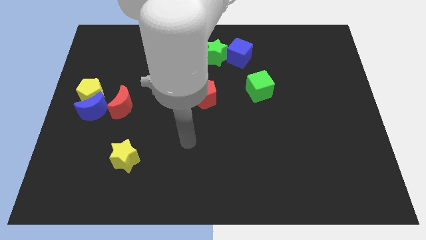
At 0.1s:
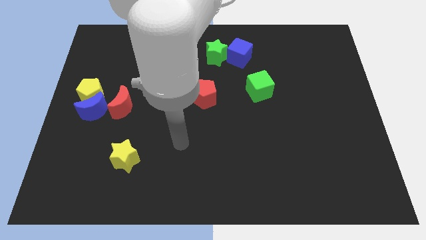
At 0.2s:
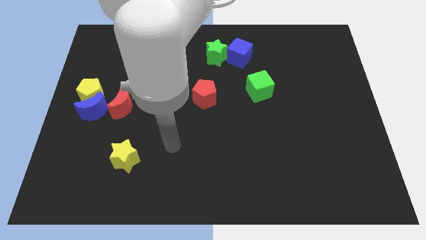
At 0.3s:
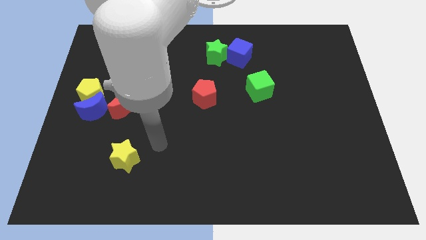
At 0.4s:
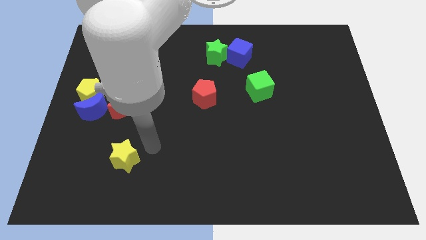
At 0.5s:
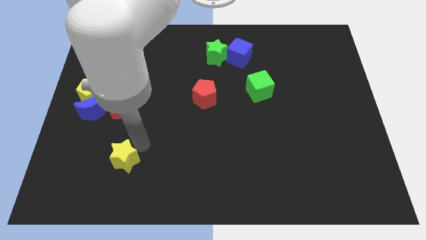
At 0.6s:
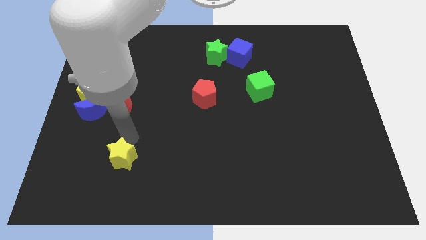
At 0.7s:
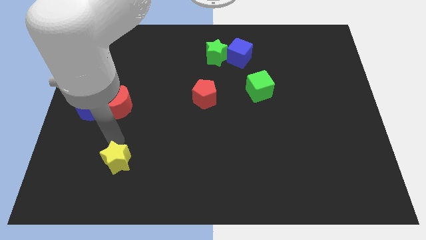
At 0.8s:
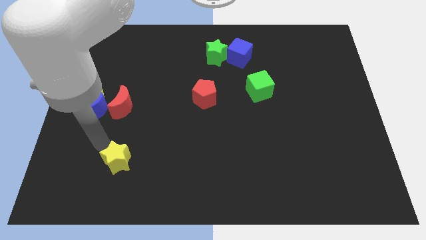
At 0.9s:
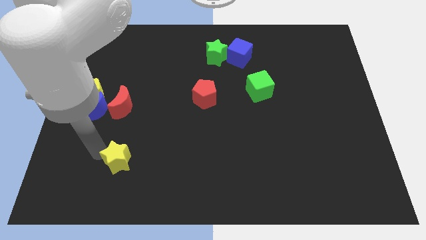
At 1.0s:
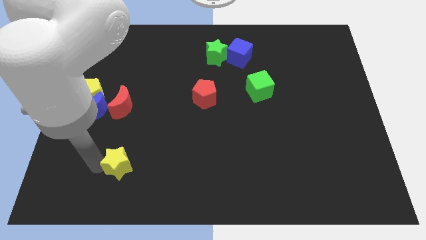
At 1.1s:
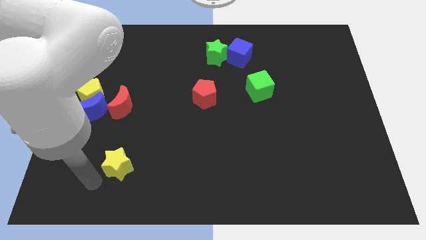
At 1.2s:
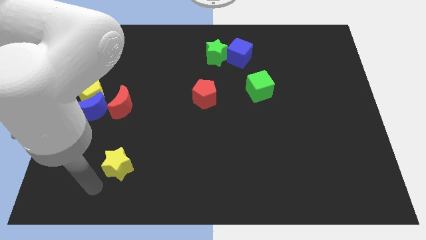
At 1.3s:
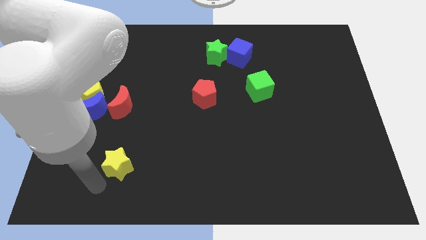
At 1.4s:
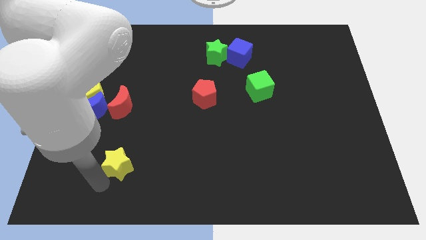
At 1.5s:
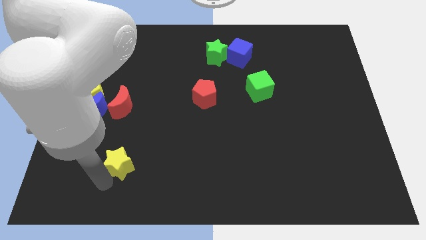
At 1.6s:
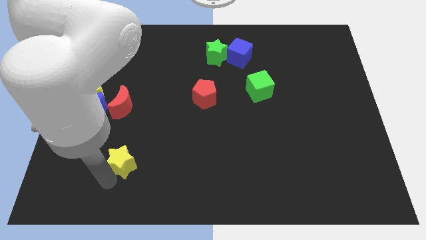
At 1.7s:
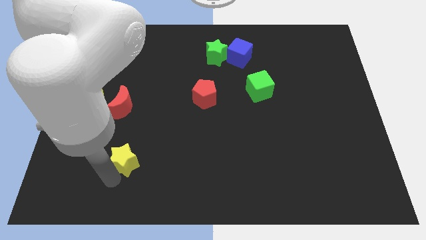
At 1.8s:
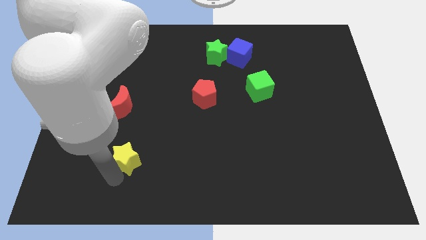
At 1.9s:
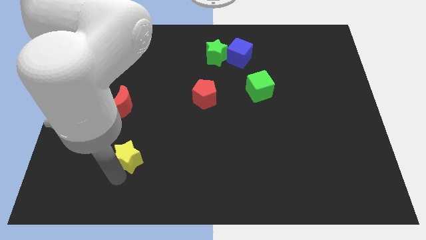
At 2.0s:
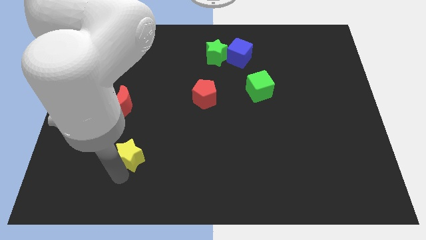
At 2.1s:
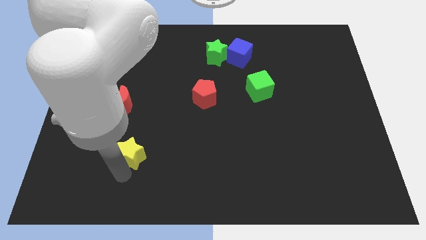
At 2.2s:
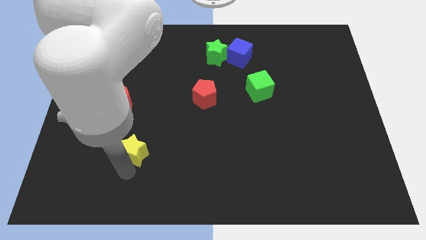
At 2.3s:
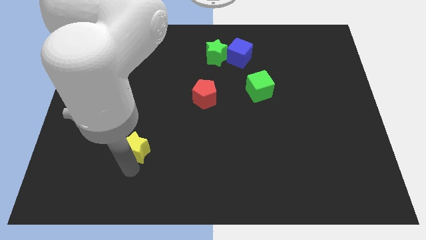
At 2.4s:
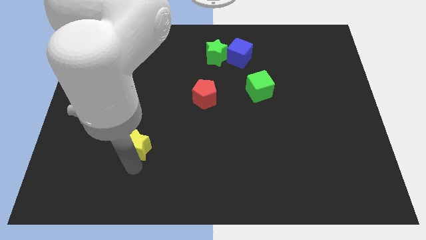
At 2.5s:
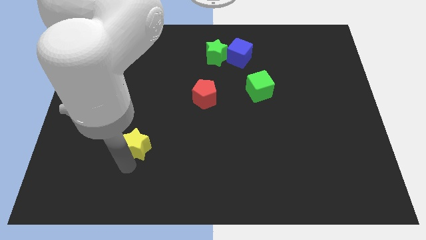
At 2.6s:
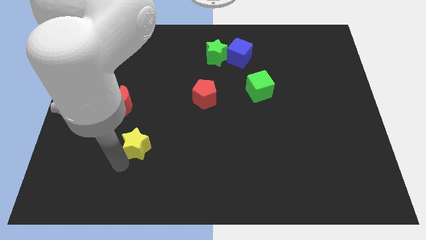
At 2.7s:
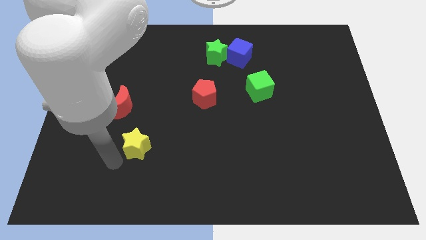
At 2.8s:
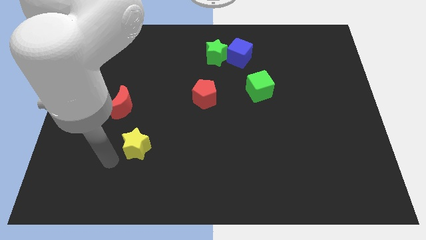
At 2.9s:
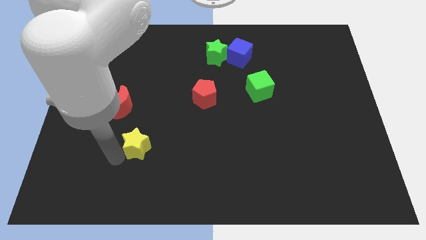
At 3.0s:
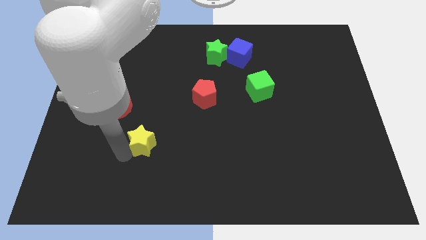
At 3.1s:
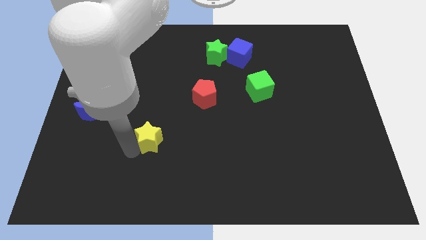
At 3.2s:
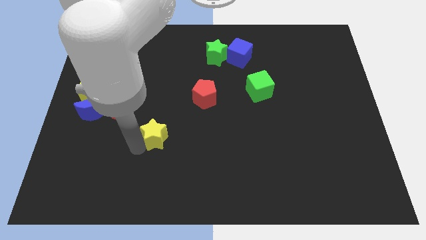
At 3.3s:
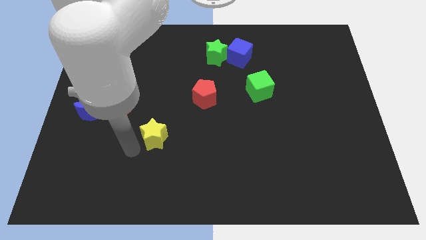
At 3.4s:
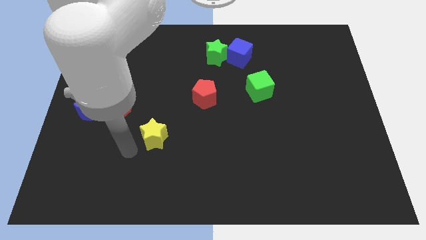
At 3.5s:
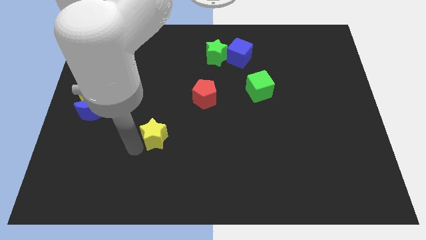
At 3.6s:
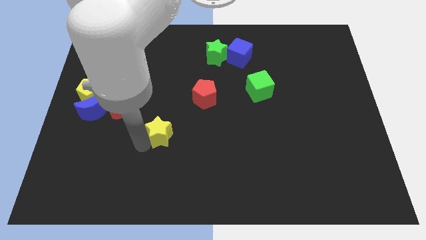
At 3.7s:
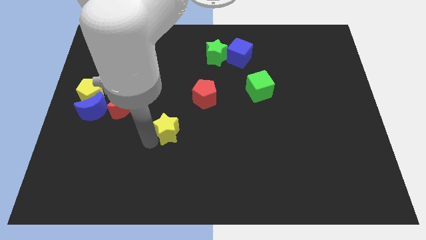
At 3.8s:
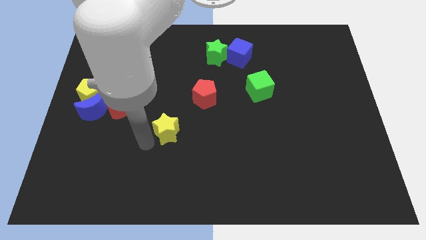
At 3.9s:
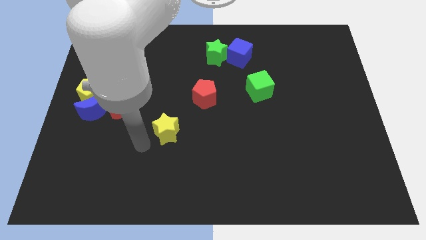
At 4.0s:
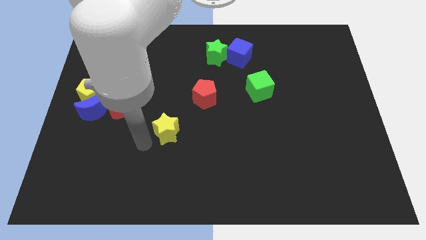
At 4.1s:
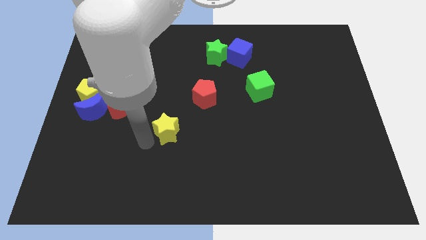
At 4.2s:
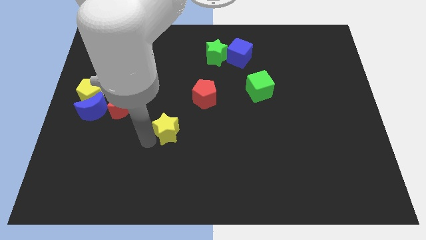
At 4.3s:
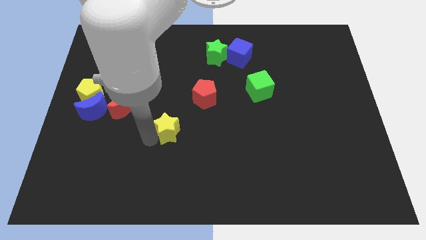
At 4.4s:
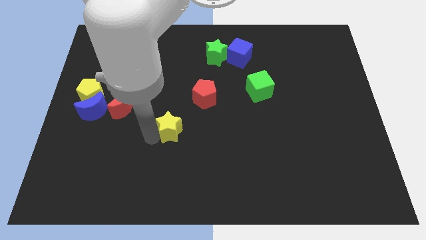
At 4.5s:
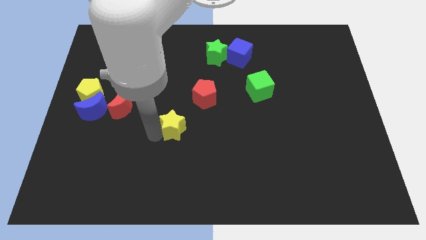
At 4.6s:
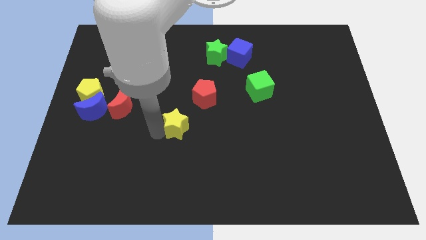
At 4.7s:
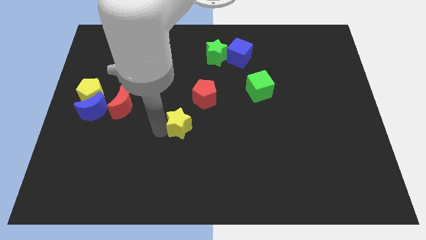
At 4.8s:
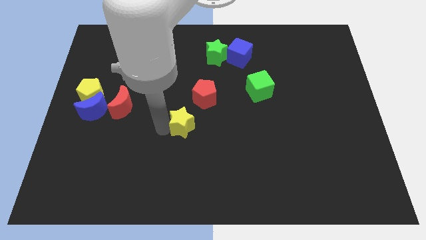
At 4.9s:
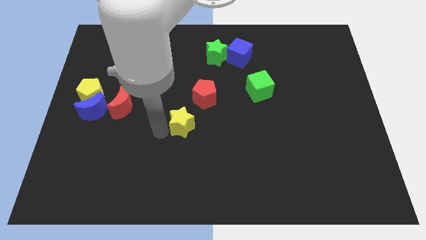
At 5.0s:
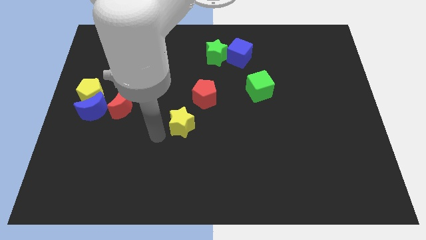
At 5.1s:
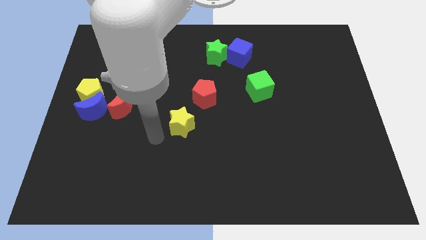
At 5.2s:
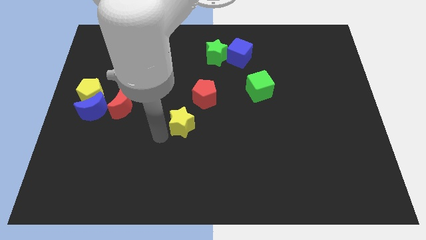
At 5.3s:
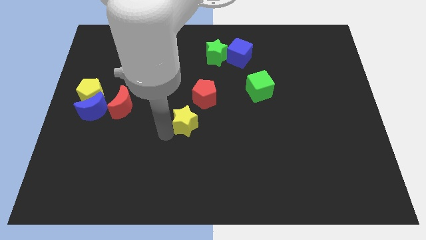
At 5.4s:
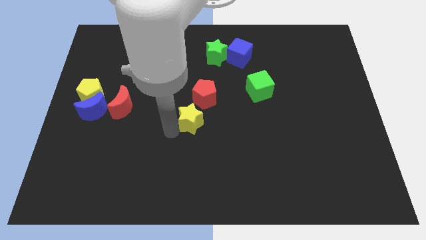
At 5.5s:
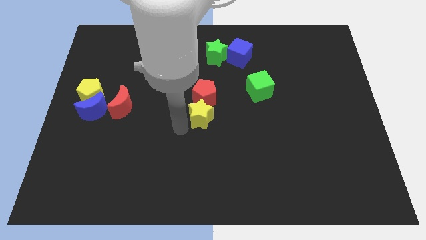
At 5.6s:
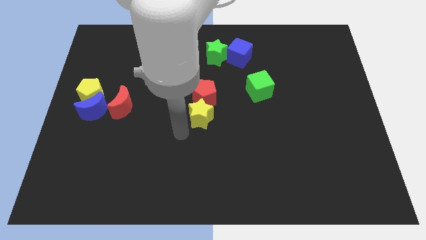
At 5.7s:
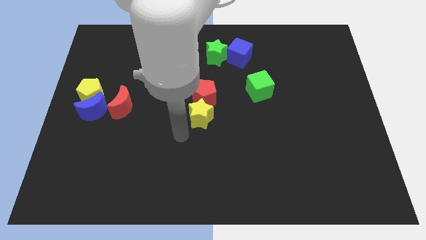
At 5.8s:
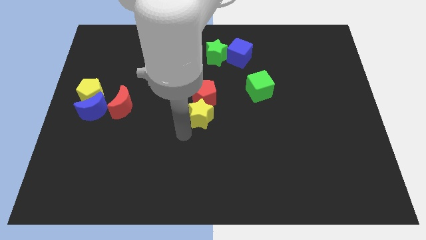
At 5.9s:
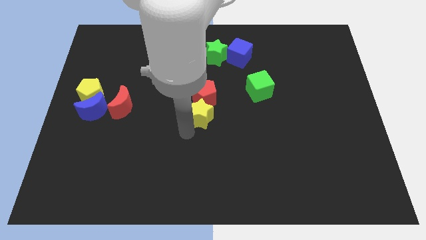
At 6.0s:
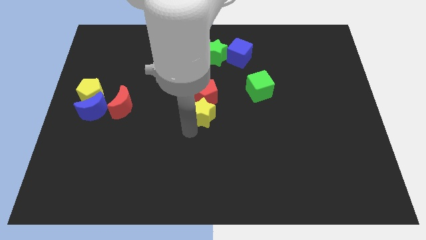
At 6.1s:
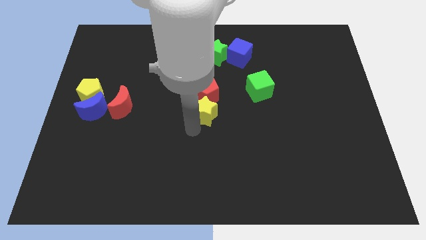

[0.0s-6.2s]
slide the yellow star upwards and to the right

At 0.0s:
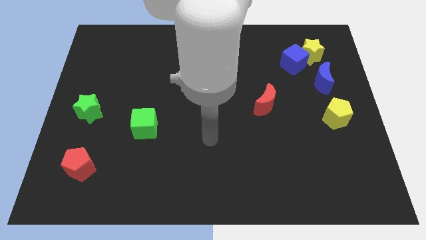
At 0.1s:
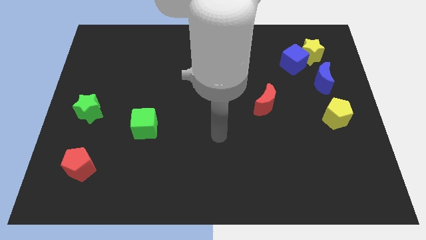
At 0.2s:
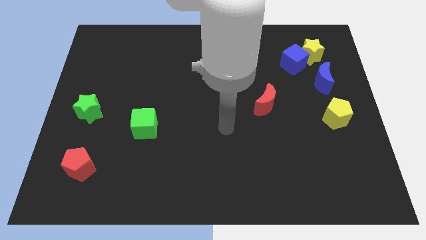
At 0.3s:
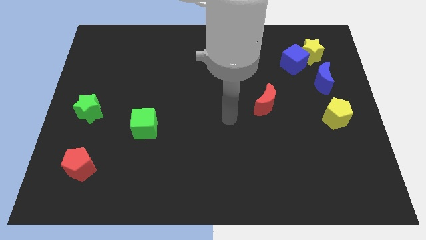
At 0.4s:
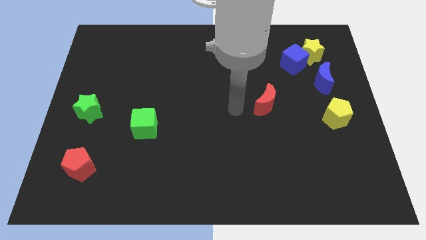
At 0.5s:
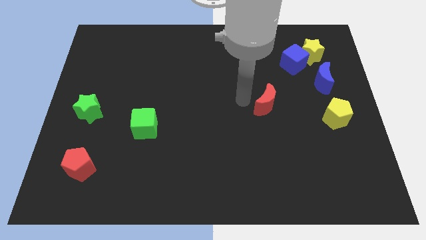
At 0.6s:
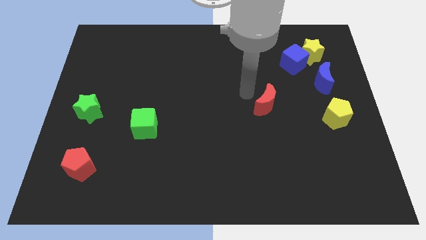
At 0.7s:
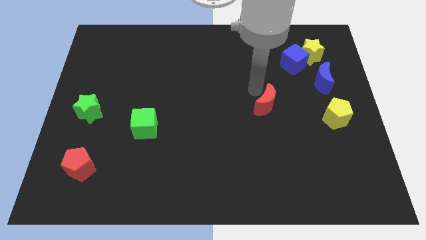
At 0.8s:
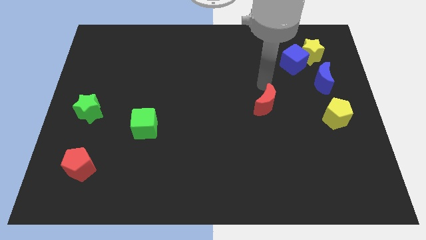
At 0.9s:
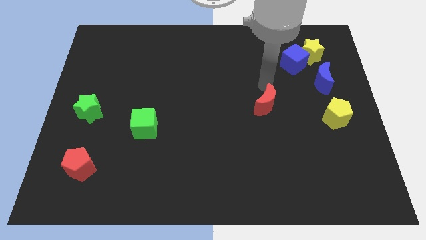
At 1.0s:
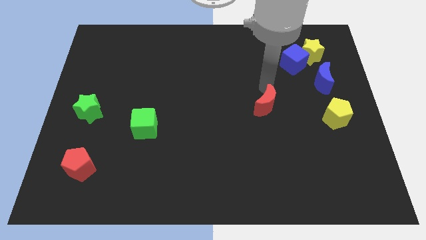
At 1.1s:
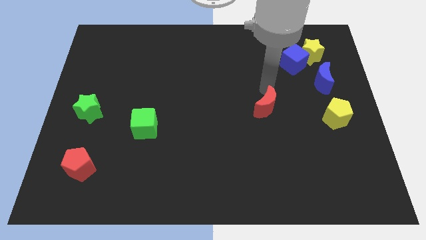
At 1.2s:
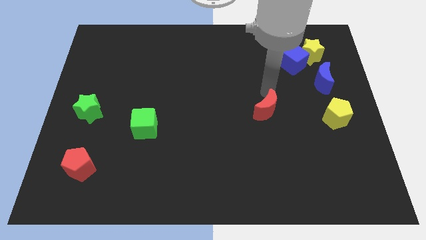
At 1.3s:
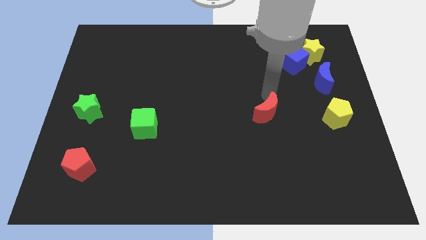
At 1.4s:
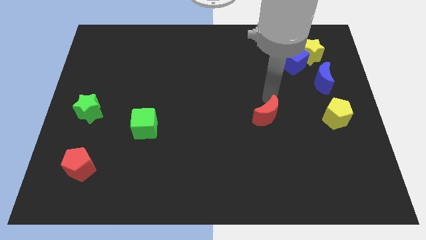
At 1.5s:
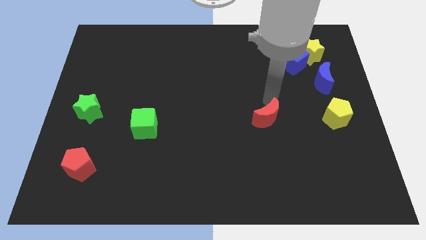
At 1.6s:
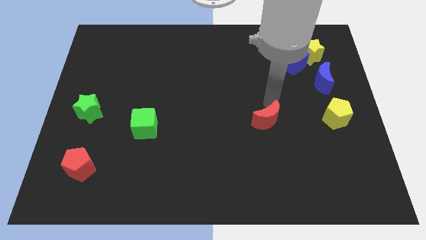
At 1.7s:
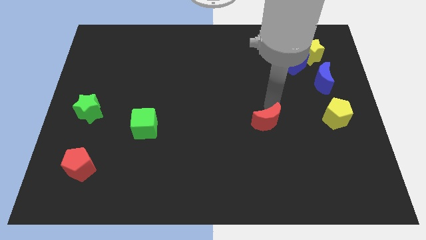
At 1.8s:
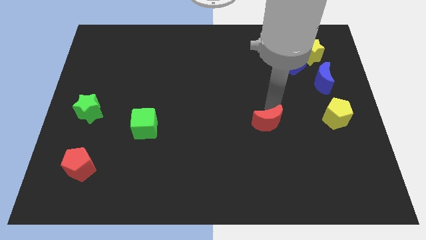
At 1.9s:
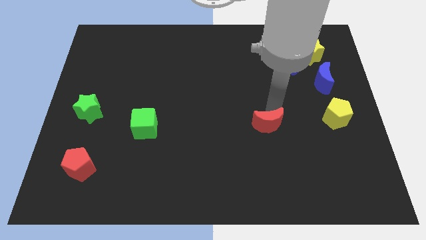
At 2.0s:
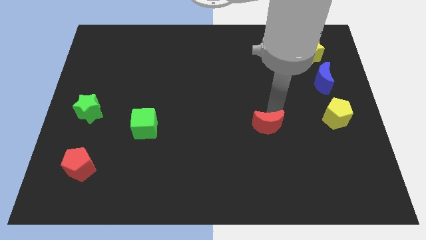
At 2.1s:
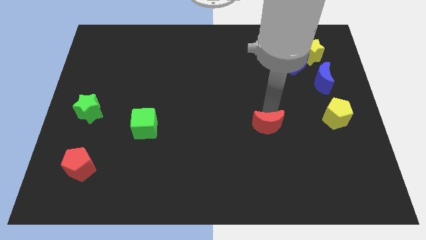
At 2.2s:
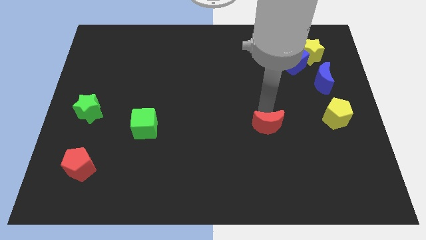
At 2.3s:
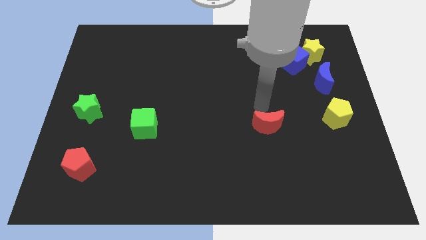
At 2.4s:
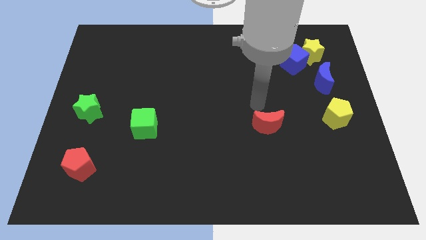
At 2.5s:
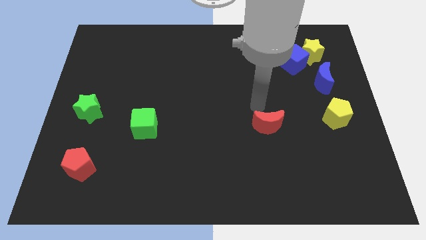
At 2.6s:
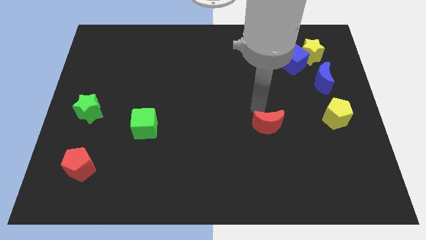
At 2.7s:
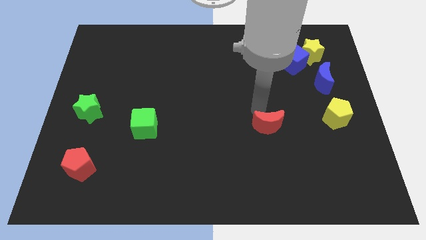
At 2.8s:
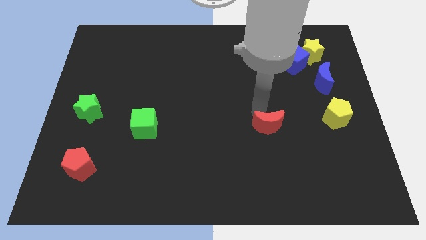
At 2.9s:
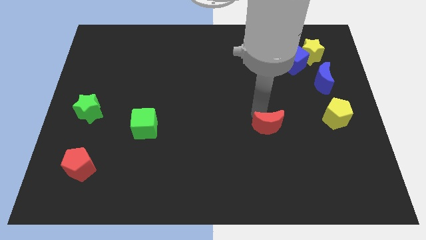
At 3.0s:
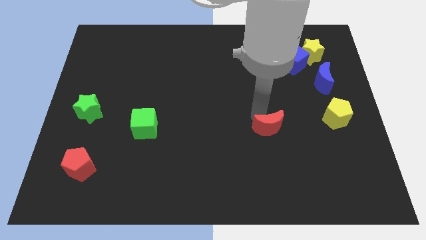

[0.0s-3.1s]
push the red moon down a little
